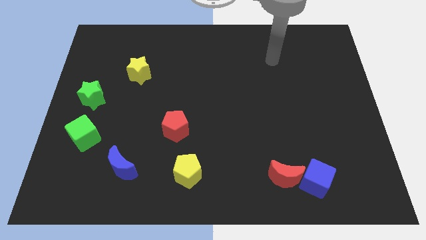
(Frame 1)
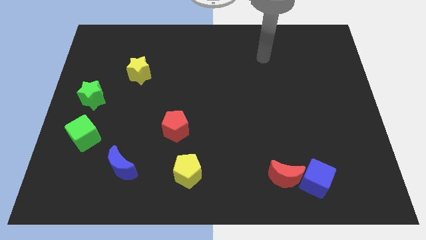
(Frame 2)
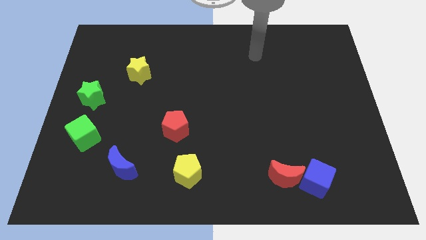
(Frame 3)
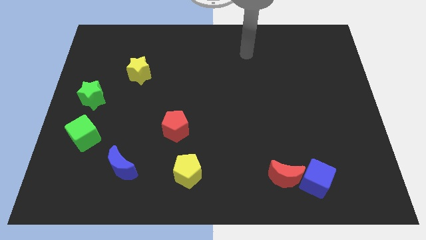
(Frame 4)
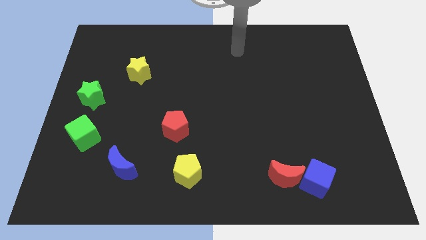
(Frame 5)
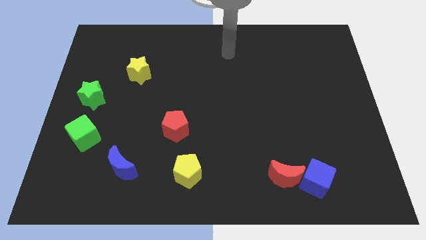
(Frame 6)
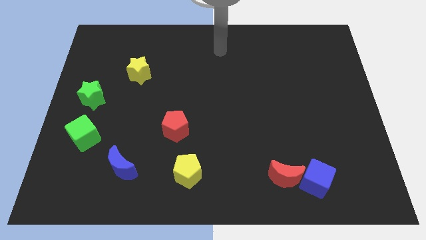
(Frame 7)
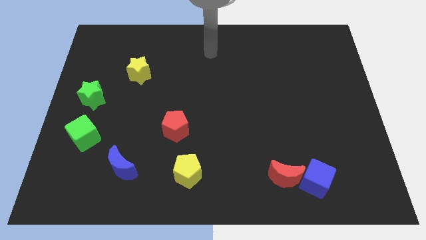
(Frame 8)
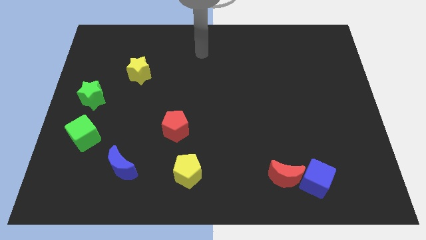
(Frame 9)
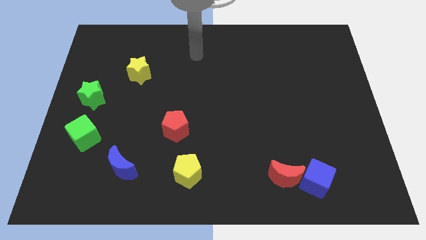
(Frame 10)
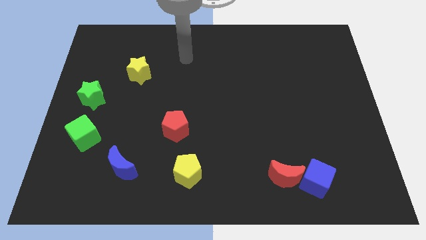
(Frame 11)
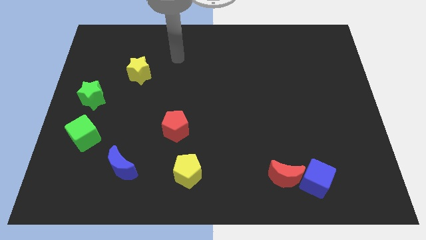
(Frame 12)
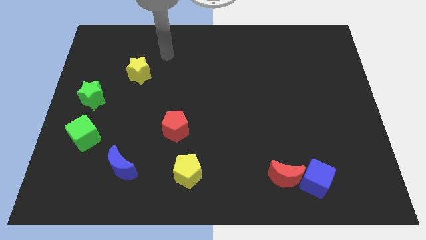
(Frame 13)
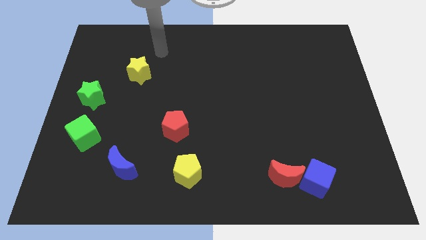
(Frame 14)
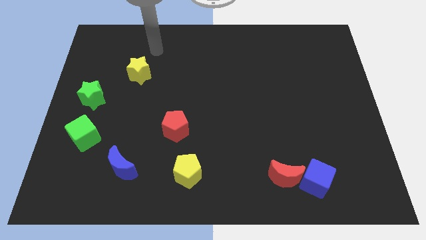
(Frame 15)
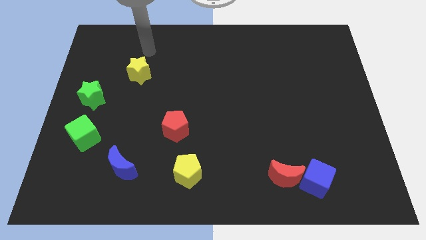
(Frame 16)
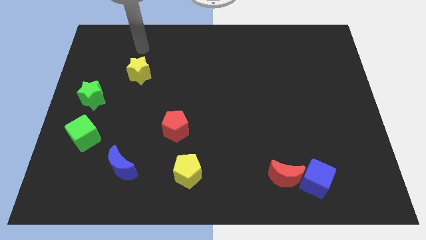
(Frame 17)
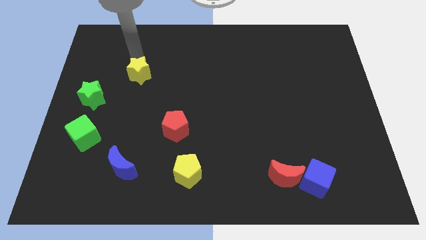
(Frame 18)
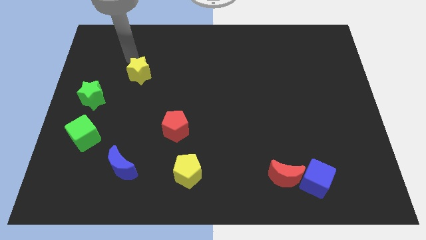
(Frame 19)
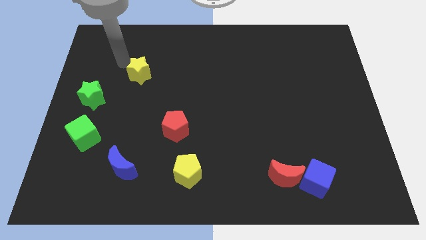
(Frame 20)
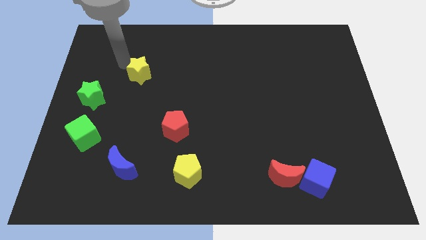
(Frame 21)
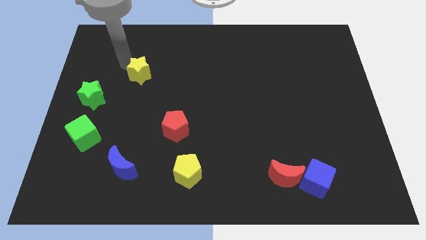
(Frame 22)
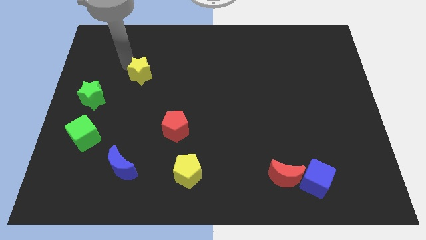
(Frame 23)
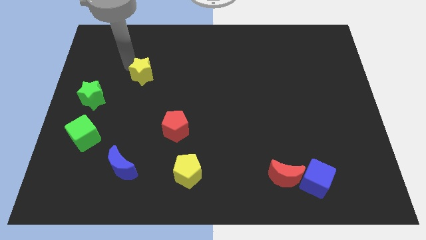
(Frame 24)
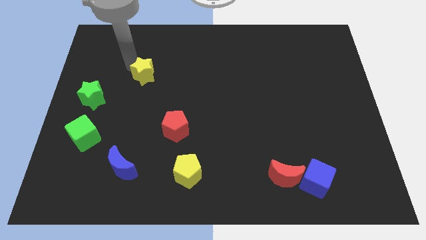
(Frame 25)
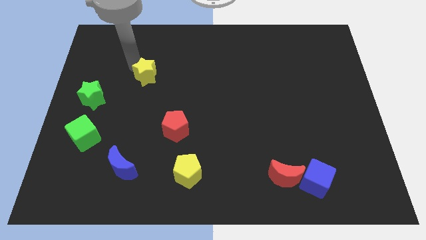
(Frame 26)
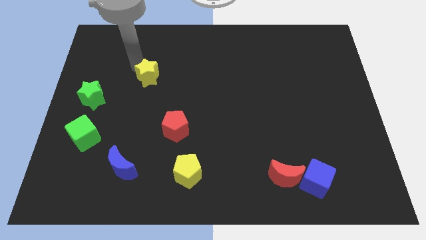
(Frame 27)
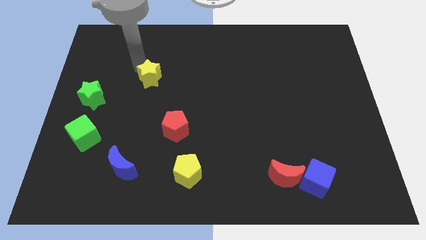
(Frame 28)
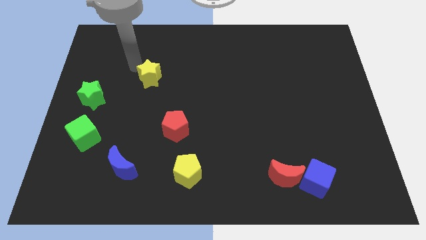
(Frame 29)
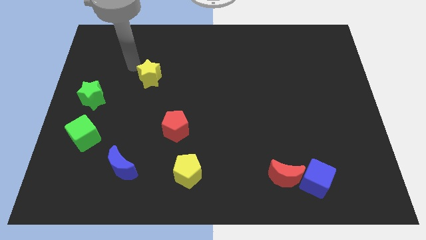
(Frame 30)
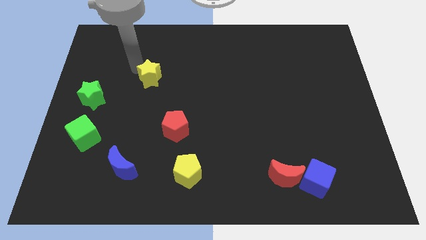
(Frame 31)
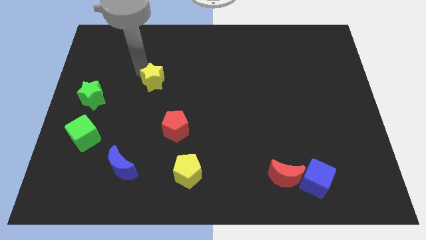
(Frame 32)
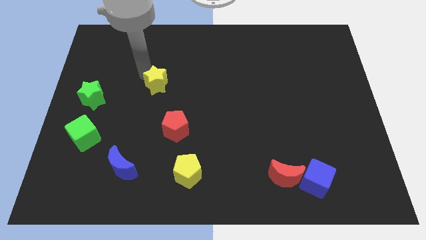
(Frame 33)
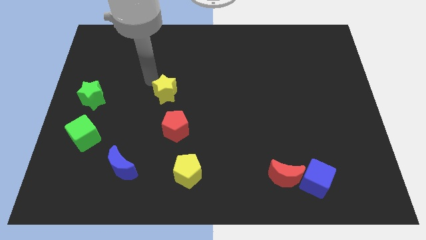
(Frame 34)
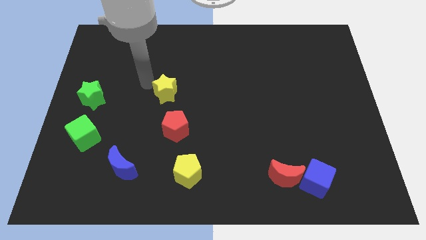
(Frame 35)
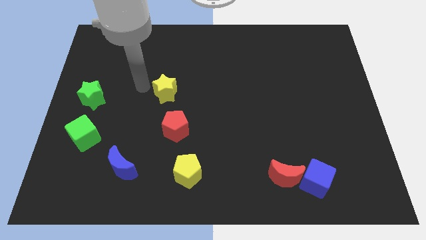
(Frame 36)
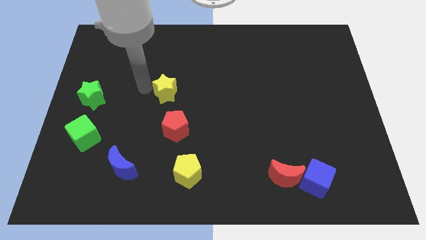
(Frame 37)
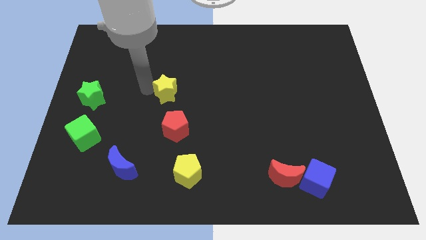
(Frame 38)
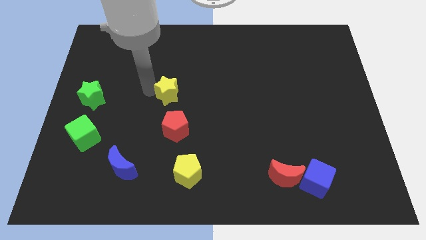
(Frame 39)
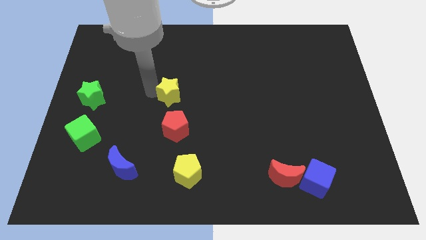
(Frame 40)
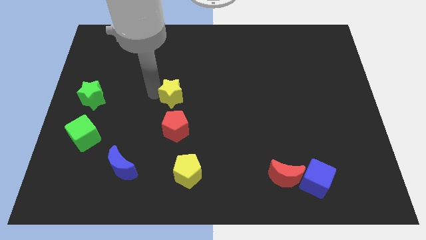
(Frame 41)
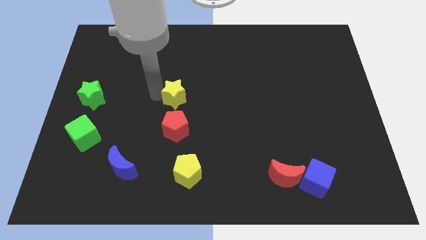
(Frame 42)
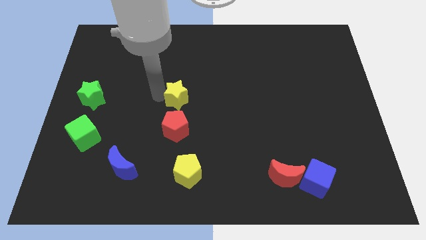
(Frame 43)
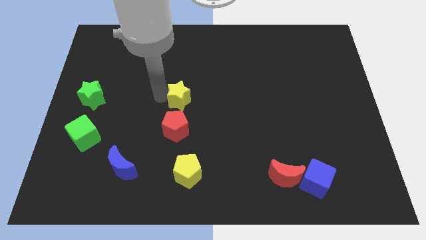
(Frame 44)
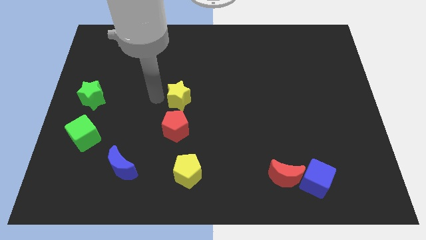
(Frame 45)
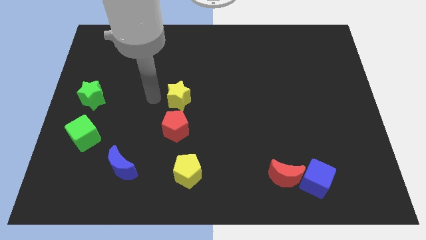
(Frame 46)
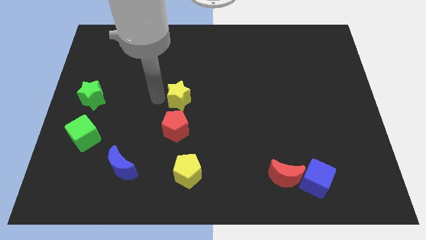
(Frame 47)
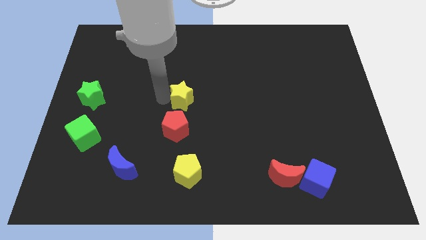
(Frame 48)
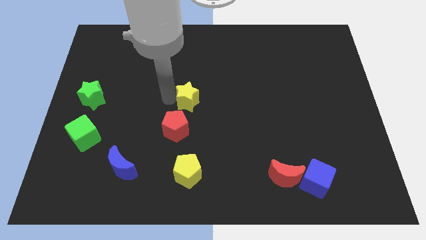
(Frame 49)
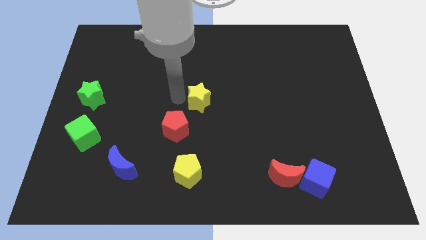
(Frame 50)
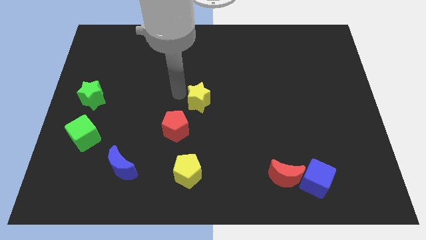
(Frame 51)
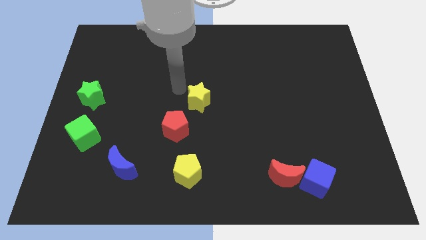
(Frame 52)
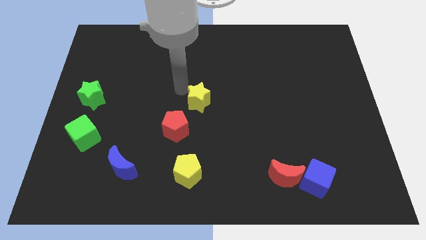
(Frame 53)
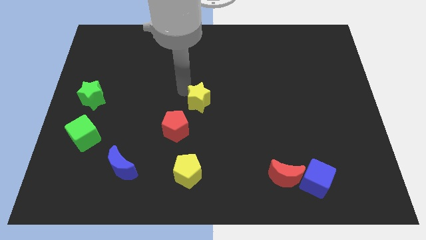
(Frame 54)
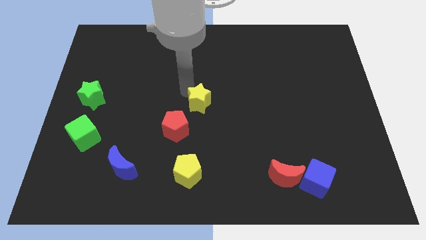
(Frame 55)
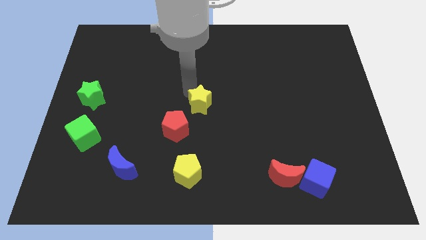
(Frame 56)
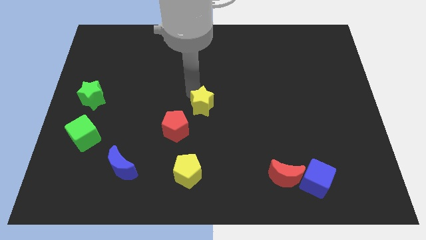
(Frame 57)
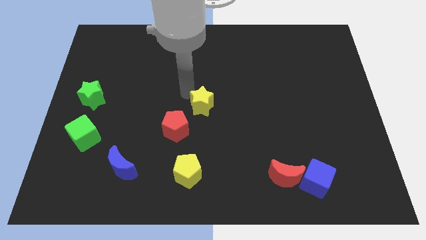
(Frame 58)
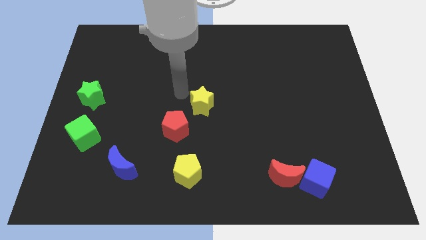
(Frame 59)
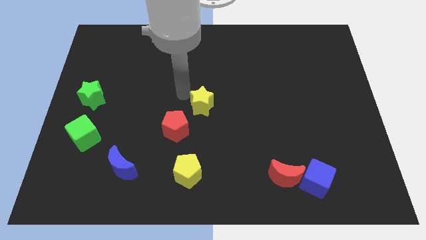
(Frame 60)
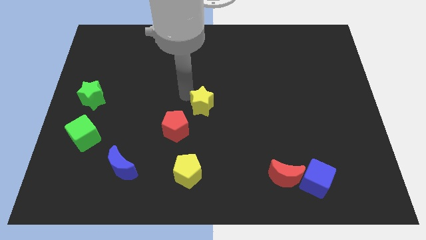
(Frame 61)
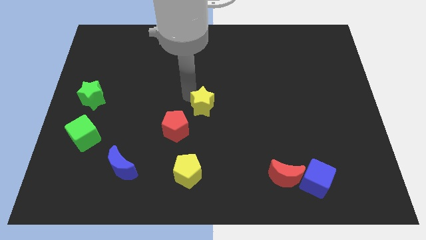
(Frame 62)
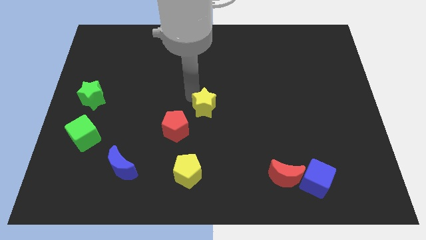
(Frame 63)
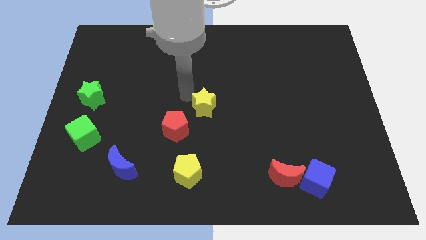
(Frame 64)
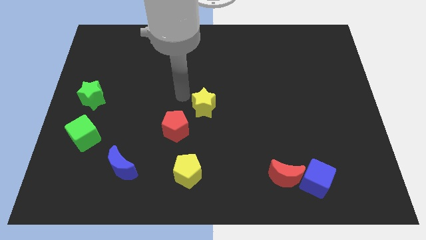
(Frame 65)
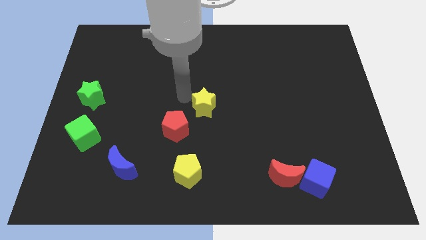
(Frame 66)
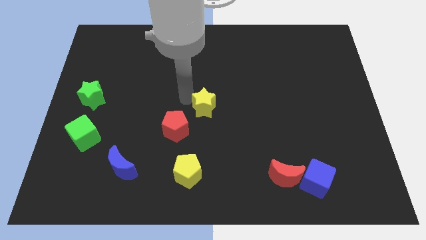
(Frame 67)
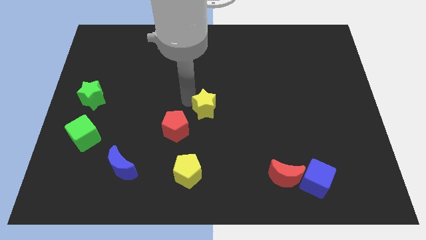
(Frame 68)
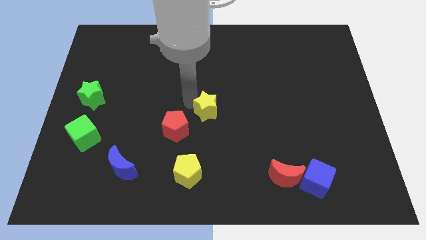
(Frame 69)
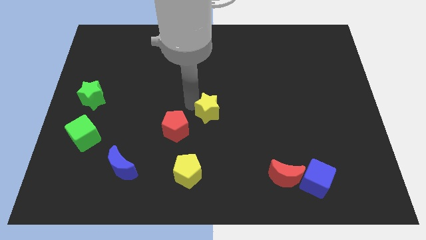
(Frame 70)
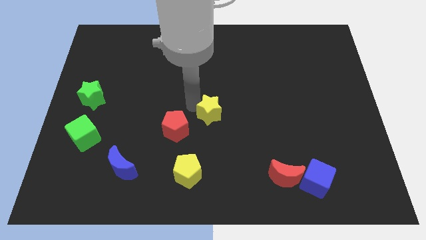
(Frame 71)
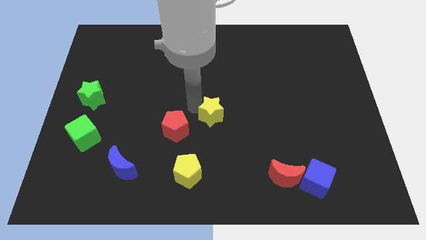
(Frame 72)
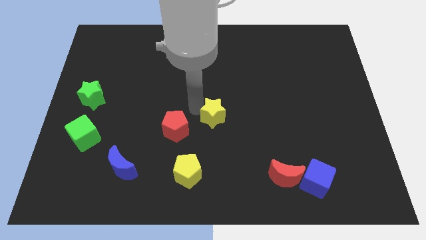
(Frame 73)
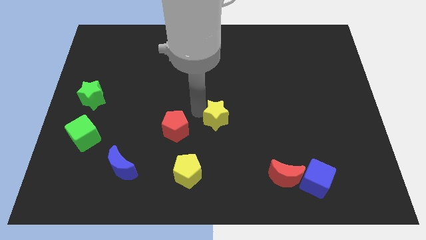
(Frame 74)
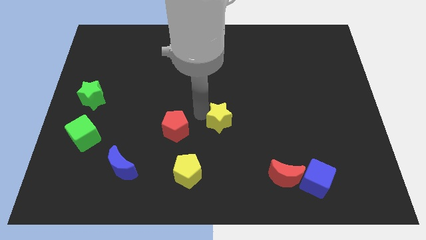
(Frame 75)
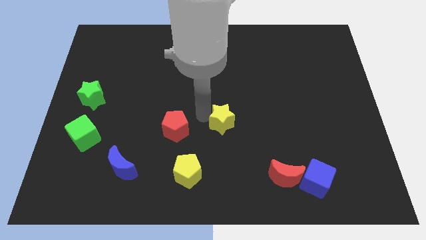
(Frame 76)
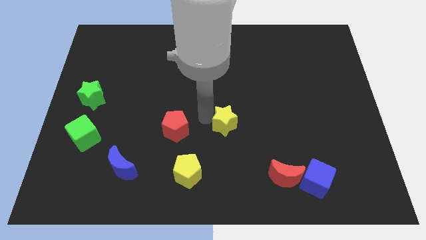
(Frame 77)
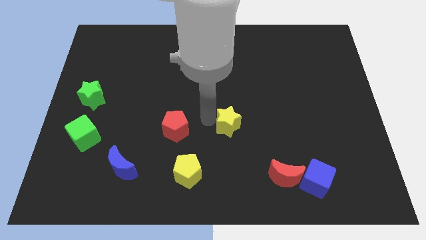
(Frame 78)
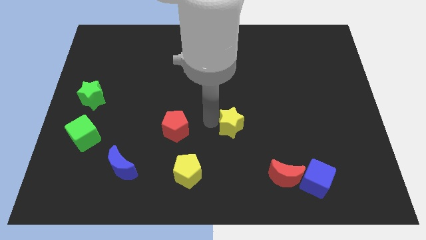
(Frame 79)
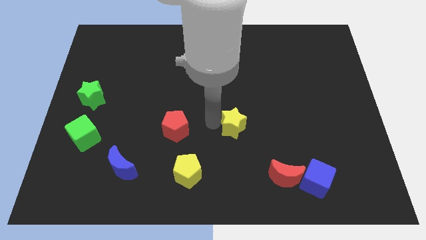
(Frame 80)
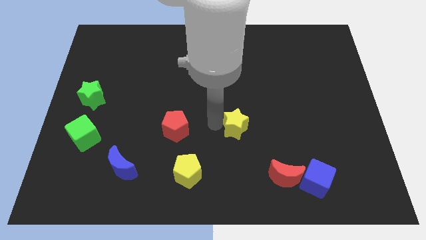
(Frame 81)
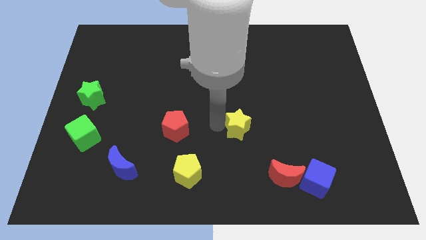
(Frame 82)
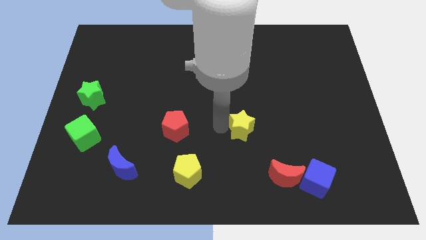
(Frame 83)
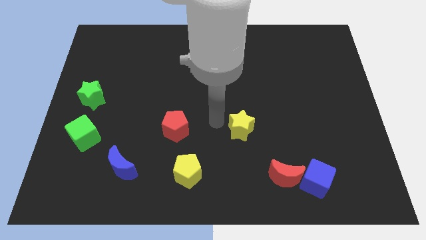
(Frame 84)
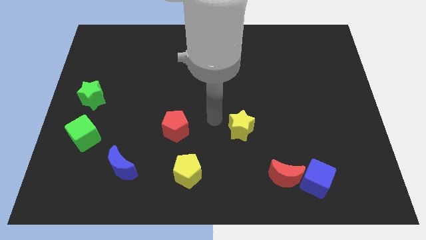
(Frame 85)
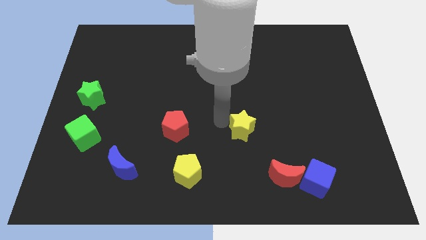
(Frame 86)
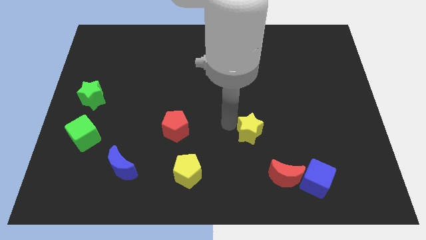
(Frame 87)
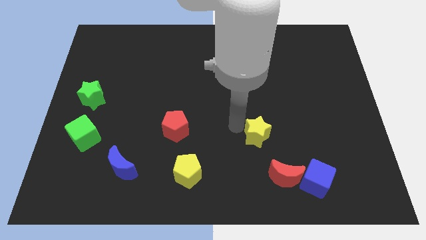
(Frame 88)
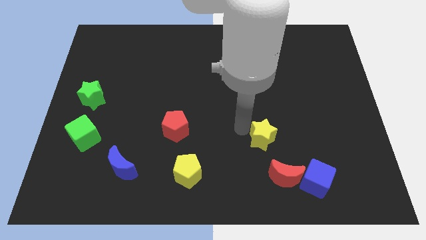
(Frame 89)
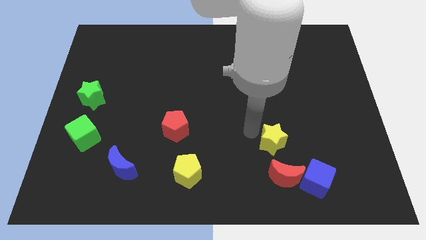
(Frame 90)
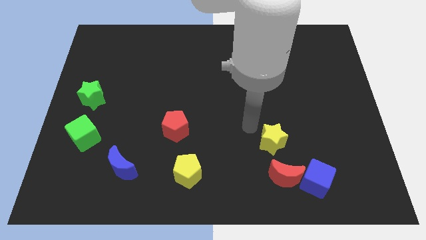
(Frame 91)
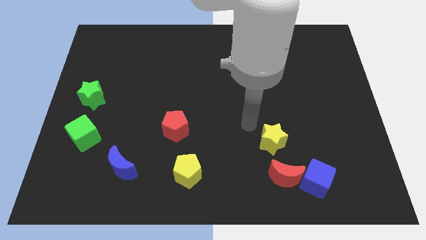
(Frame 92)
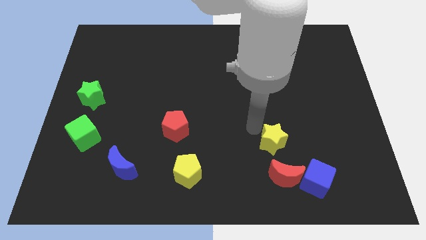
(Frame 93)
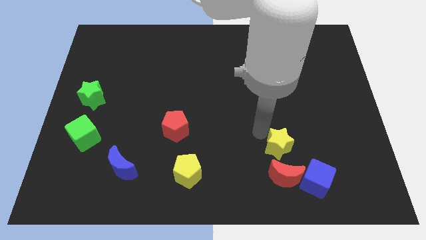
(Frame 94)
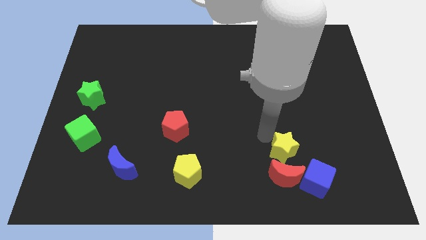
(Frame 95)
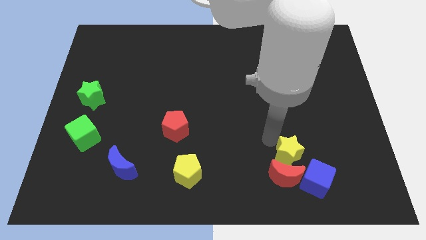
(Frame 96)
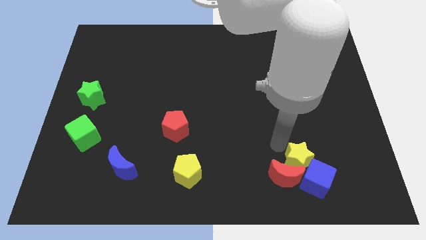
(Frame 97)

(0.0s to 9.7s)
slide the yellow star close to the blue cube
